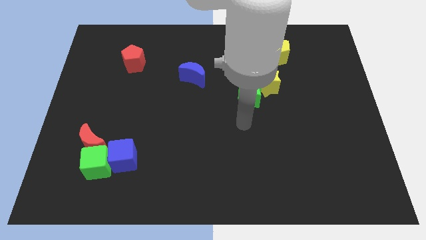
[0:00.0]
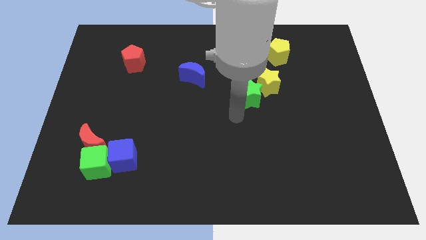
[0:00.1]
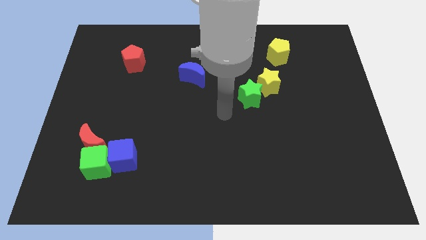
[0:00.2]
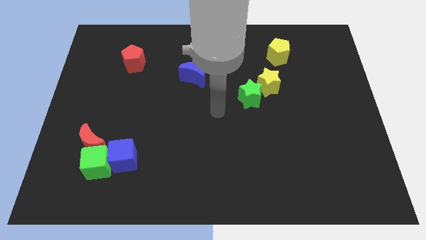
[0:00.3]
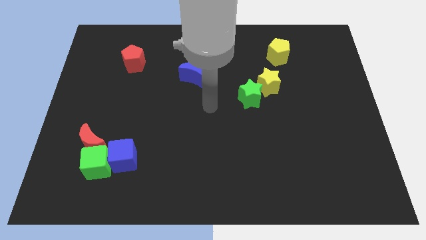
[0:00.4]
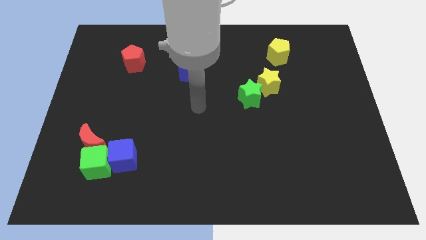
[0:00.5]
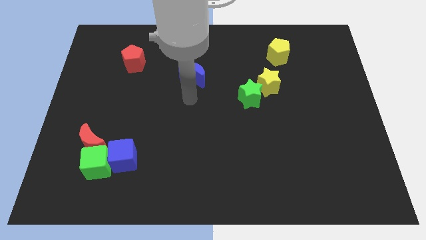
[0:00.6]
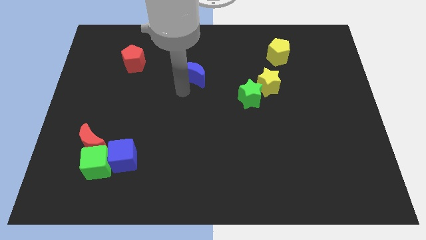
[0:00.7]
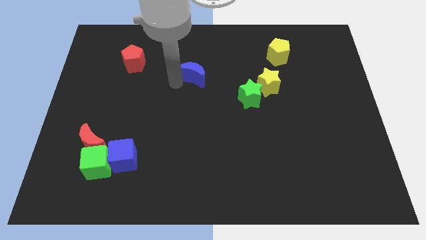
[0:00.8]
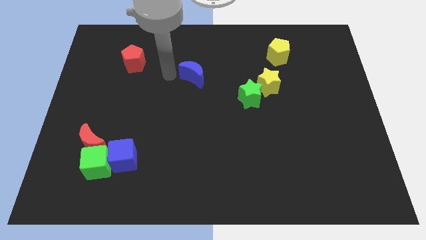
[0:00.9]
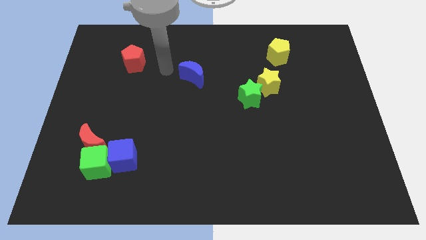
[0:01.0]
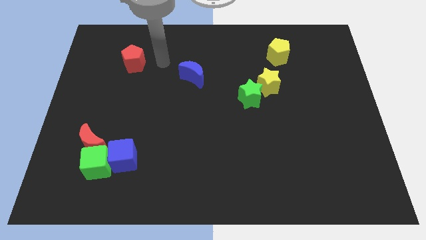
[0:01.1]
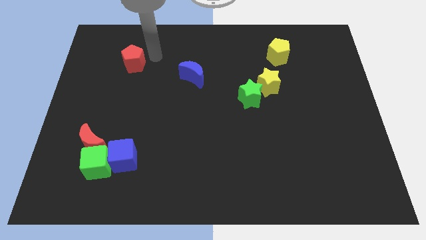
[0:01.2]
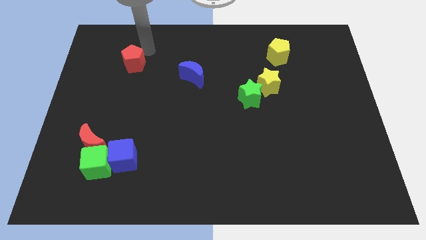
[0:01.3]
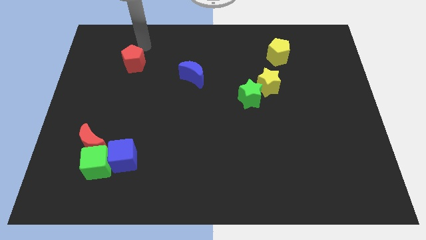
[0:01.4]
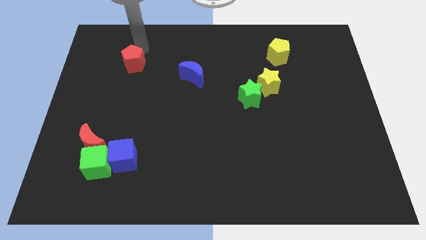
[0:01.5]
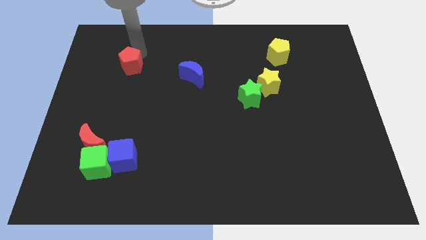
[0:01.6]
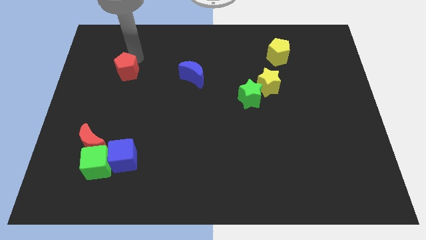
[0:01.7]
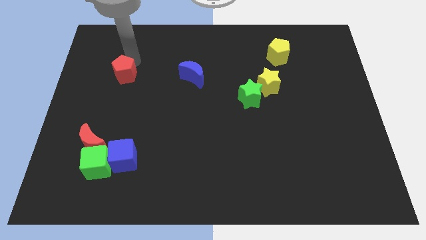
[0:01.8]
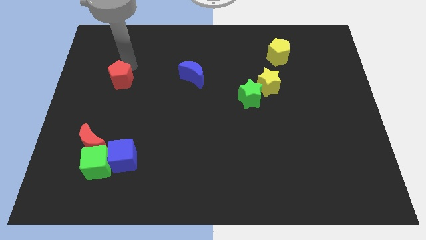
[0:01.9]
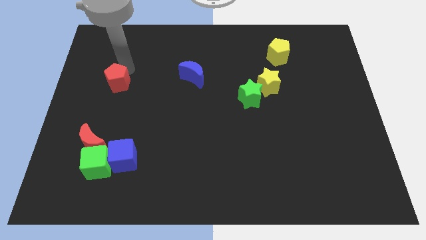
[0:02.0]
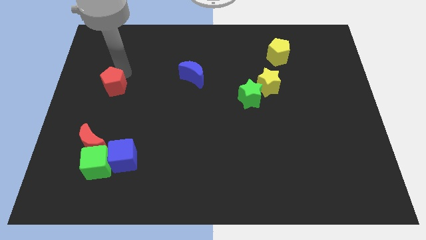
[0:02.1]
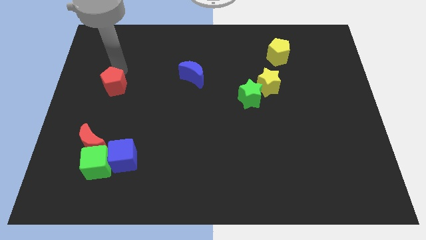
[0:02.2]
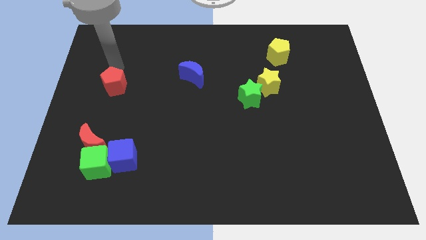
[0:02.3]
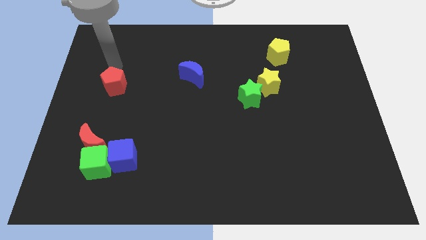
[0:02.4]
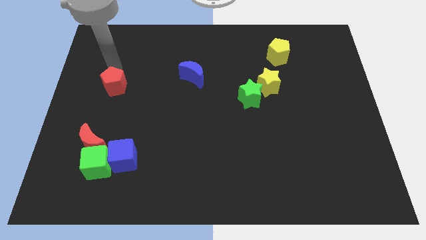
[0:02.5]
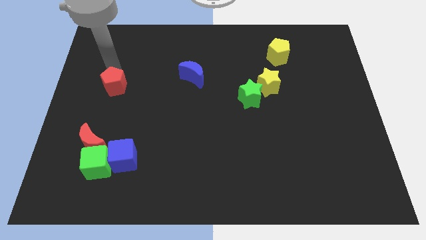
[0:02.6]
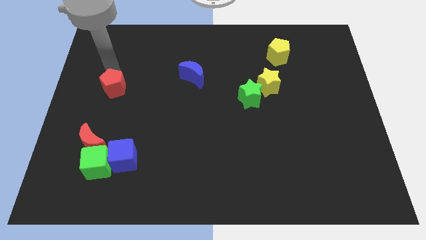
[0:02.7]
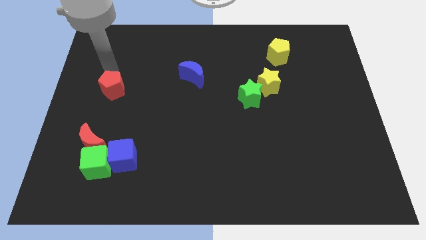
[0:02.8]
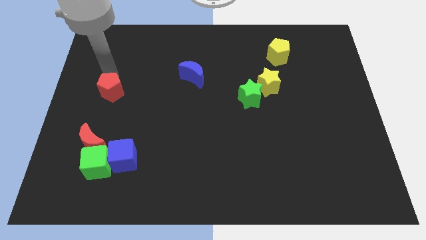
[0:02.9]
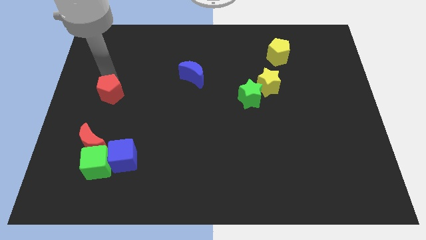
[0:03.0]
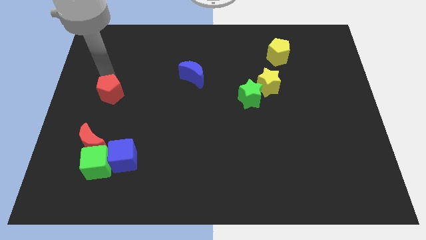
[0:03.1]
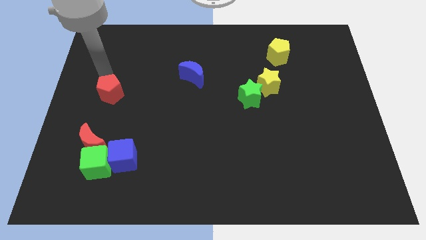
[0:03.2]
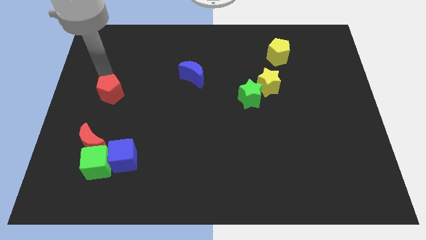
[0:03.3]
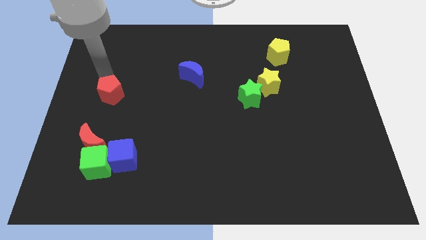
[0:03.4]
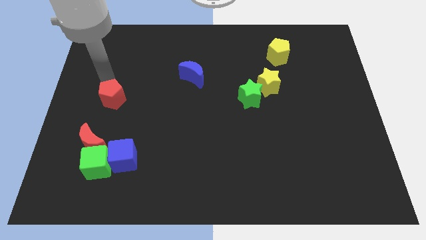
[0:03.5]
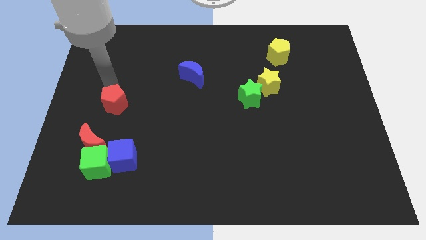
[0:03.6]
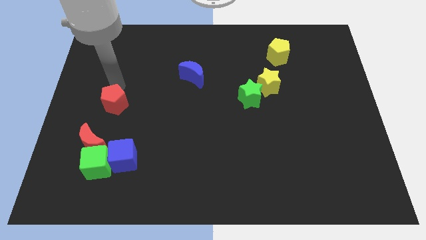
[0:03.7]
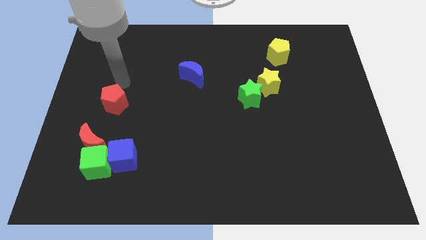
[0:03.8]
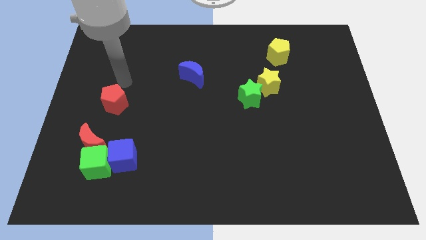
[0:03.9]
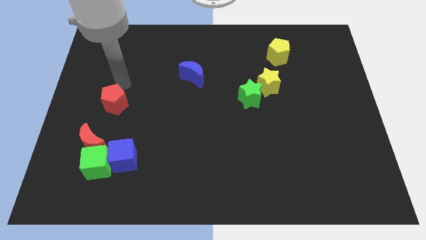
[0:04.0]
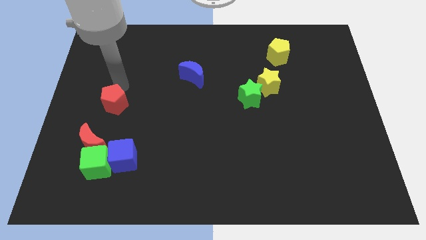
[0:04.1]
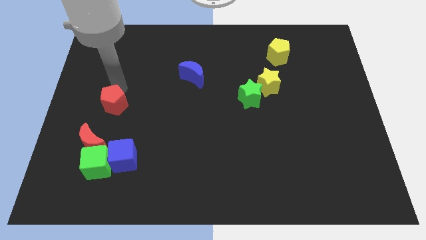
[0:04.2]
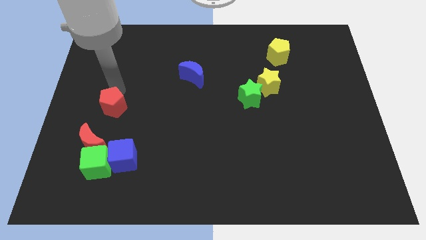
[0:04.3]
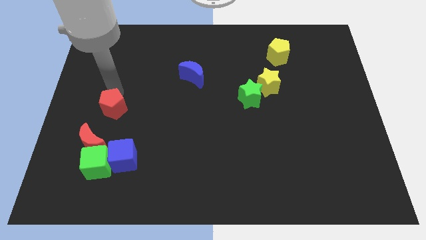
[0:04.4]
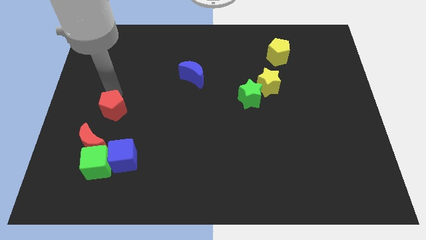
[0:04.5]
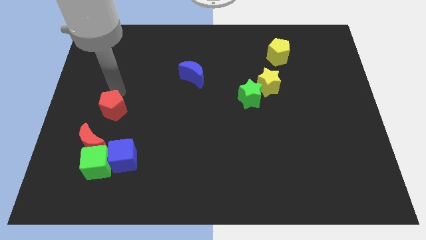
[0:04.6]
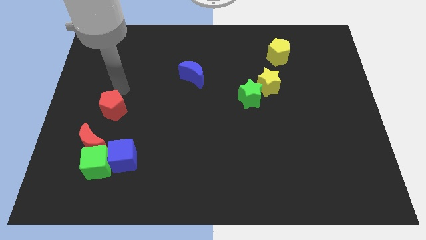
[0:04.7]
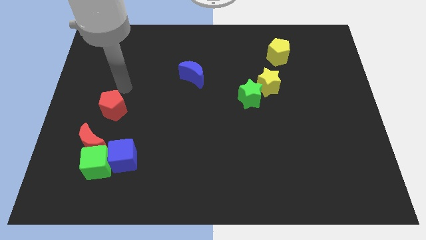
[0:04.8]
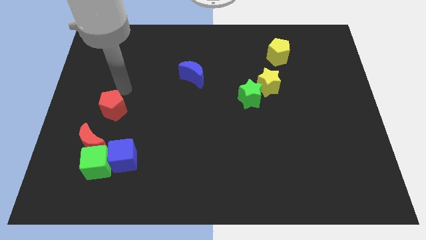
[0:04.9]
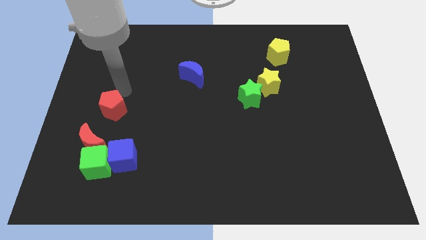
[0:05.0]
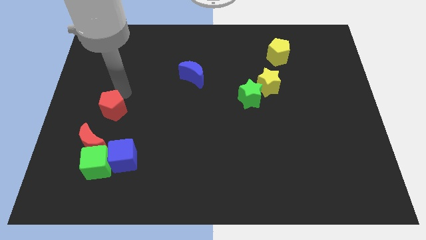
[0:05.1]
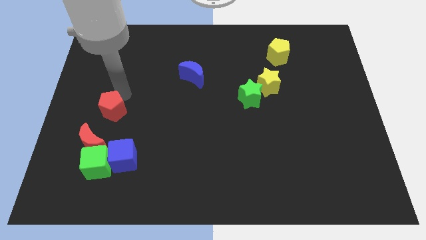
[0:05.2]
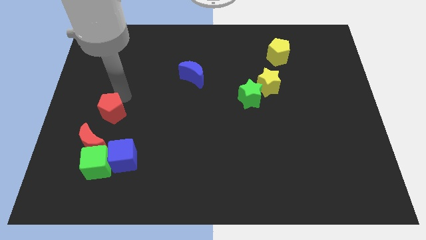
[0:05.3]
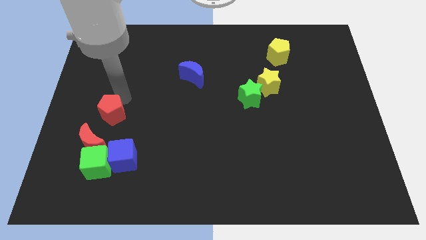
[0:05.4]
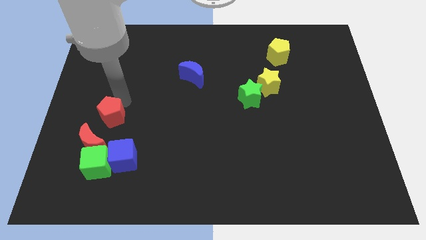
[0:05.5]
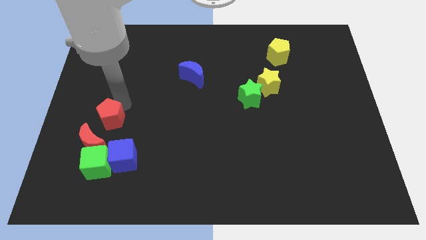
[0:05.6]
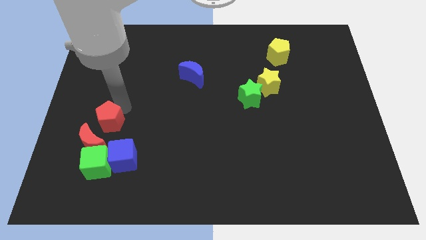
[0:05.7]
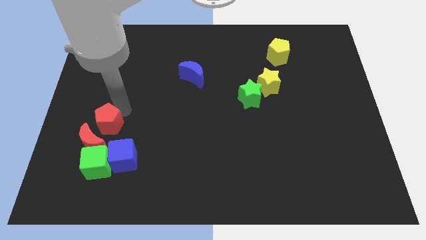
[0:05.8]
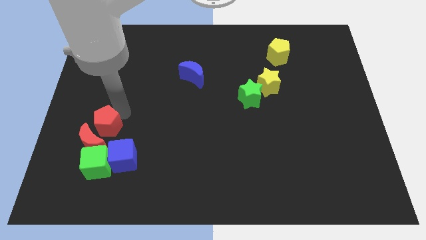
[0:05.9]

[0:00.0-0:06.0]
push the red pentagon towards the red moon
